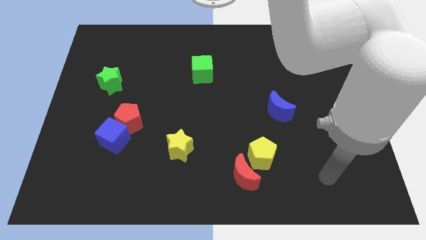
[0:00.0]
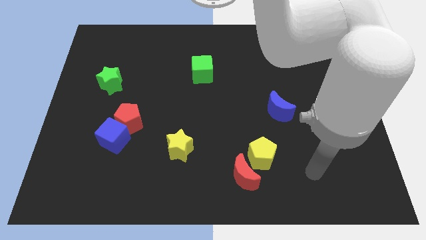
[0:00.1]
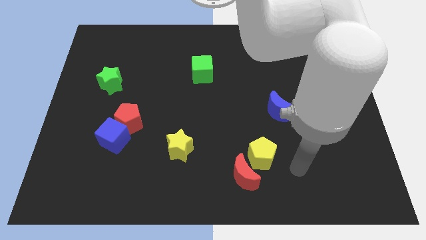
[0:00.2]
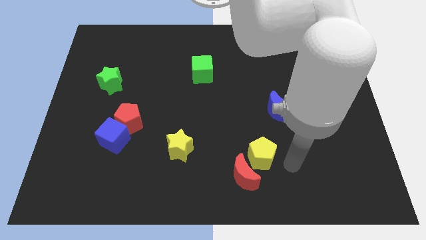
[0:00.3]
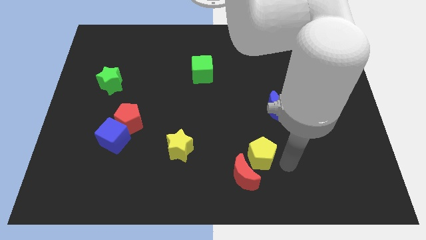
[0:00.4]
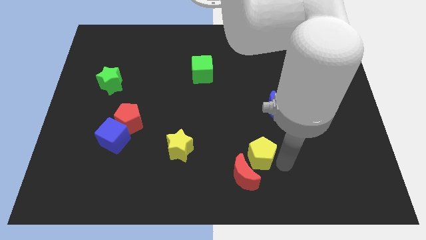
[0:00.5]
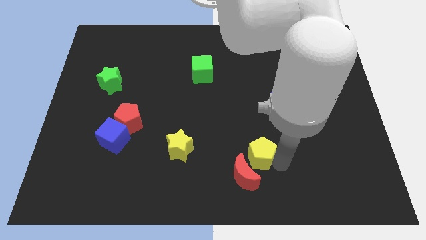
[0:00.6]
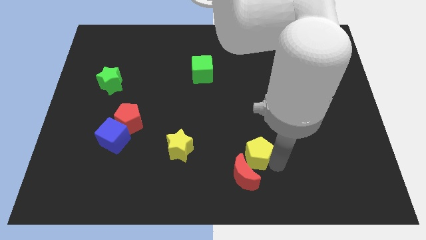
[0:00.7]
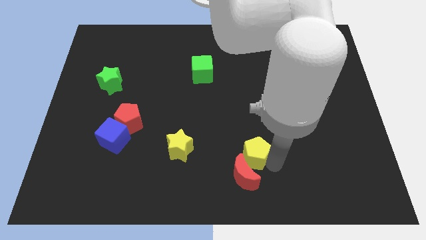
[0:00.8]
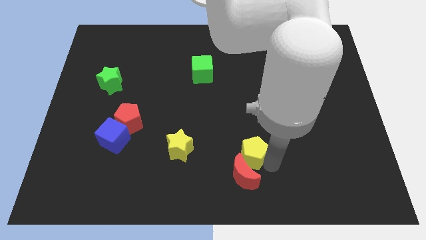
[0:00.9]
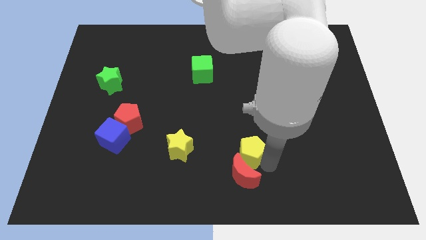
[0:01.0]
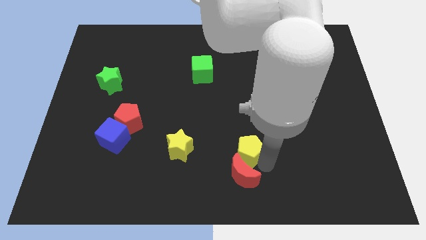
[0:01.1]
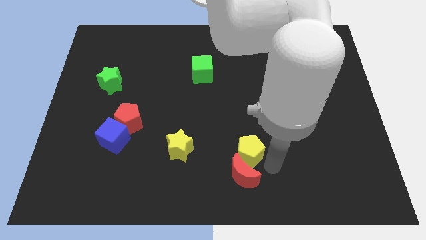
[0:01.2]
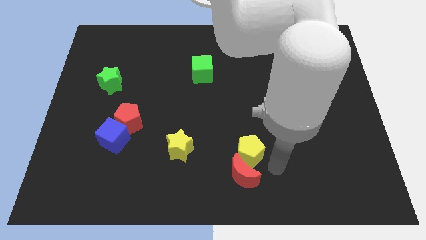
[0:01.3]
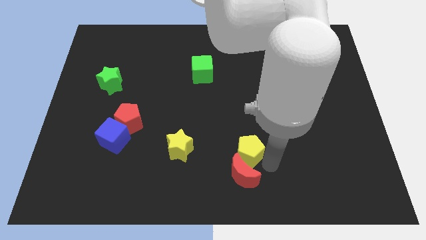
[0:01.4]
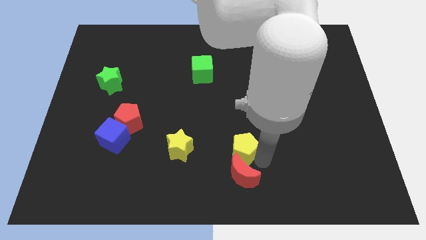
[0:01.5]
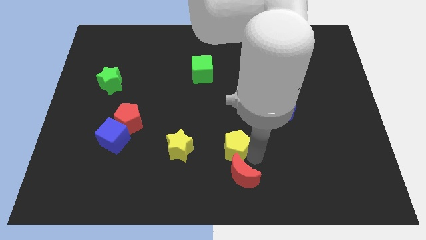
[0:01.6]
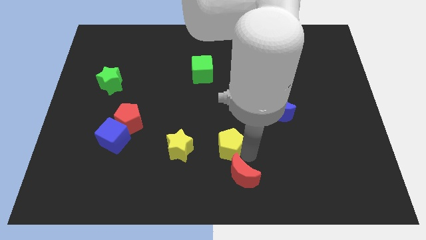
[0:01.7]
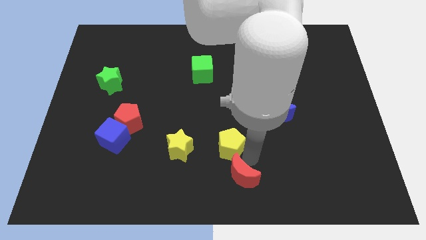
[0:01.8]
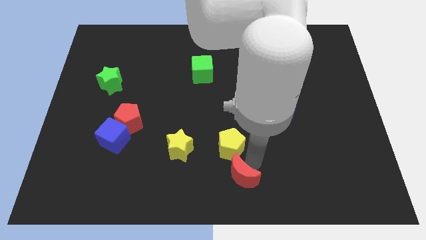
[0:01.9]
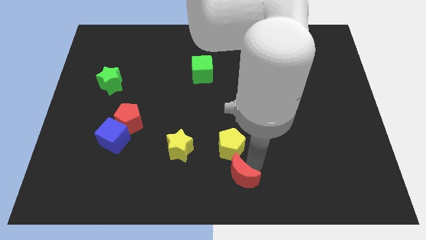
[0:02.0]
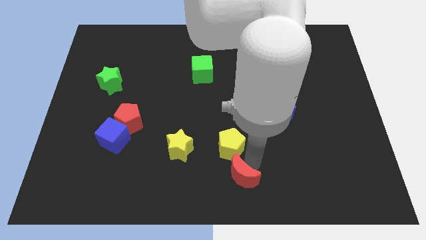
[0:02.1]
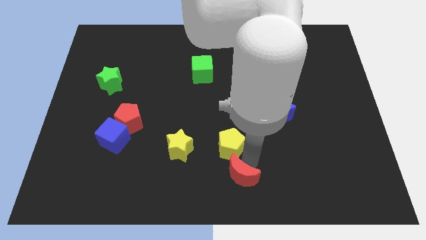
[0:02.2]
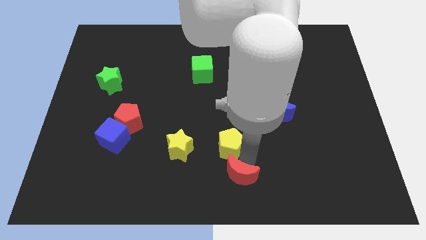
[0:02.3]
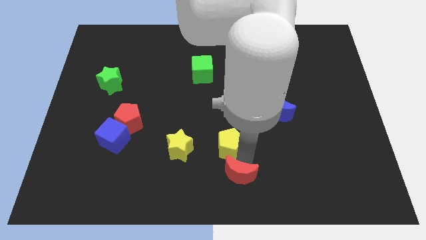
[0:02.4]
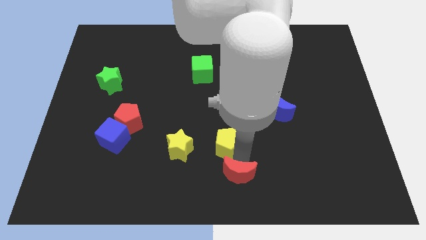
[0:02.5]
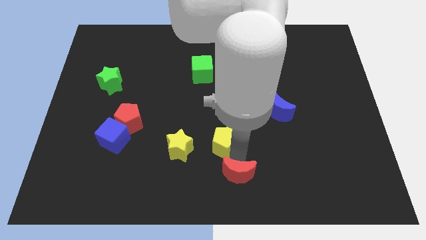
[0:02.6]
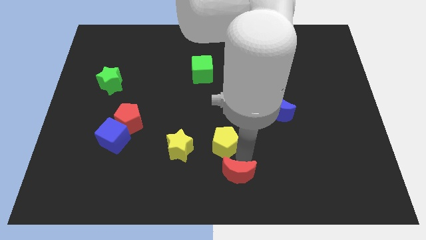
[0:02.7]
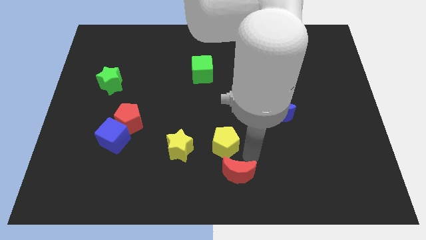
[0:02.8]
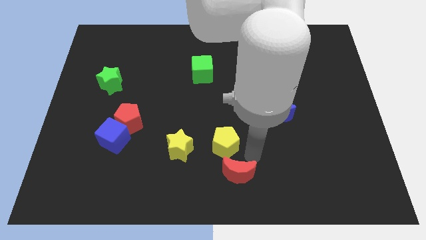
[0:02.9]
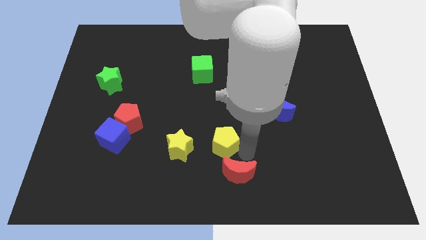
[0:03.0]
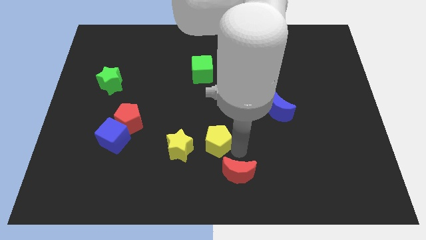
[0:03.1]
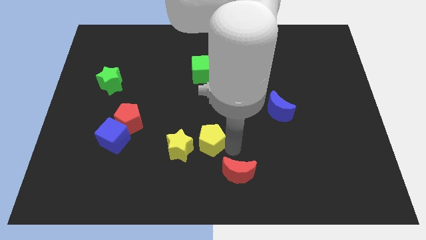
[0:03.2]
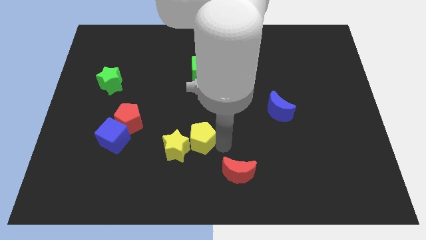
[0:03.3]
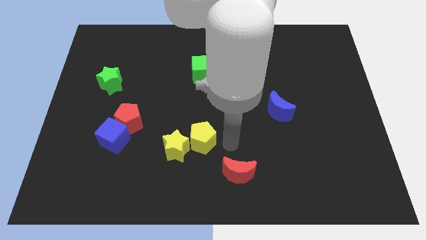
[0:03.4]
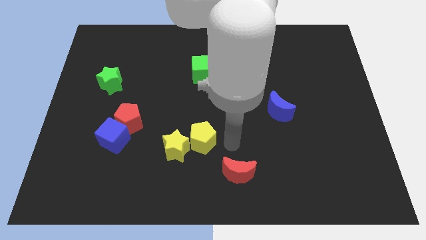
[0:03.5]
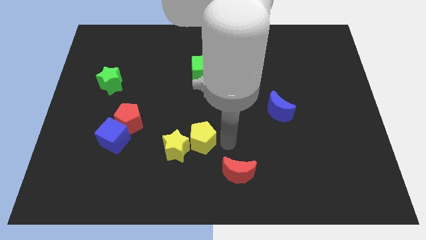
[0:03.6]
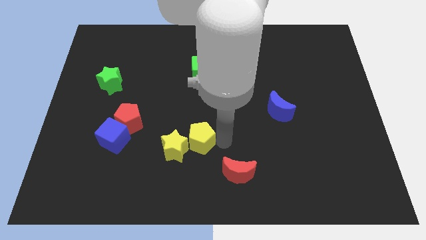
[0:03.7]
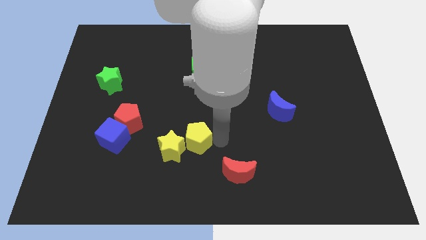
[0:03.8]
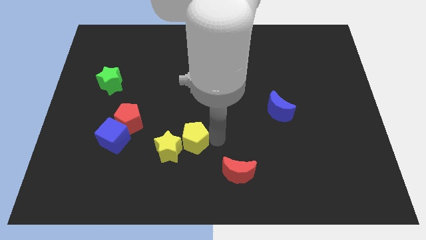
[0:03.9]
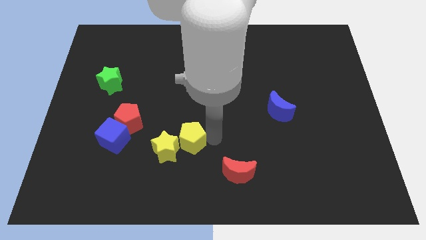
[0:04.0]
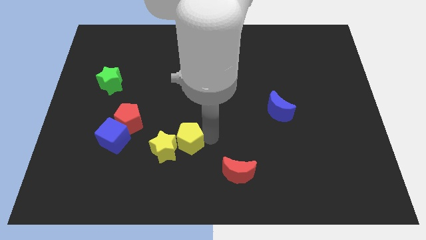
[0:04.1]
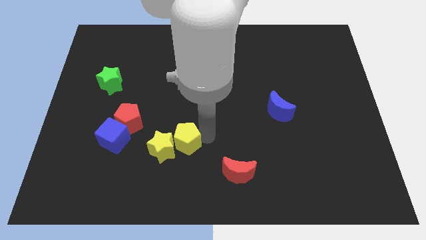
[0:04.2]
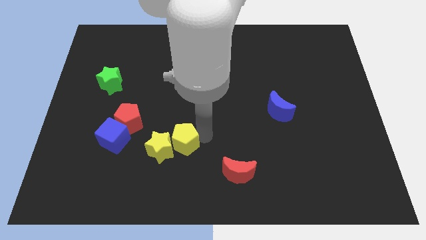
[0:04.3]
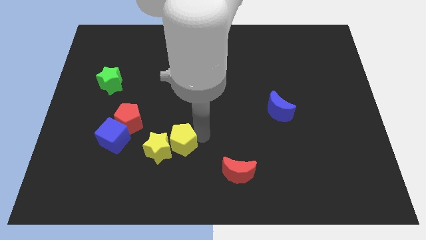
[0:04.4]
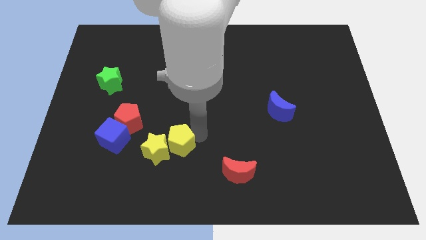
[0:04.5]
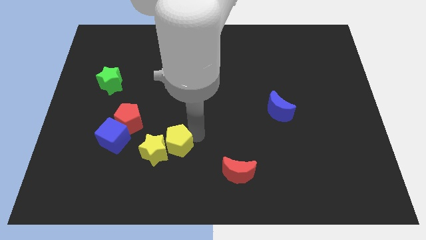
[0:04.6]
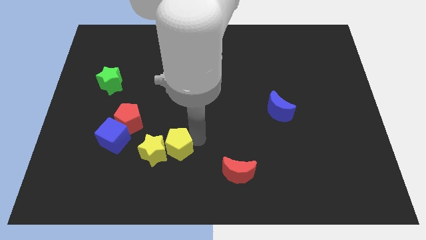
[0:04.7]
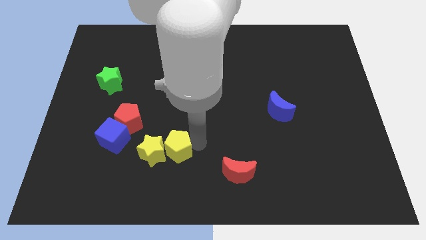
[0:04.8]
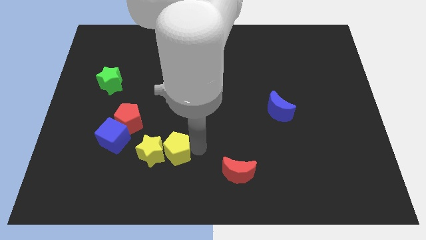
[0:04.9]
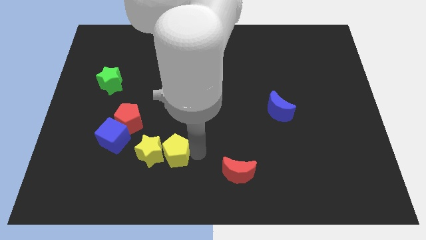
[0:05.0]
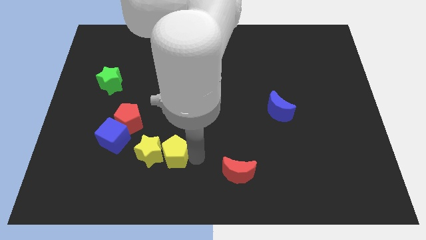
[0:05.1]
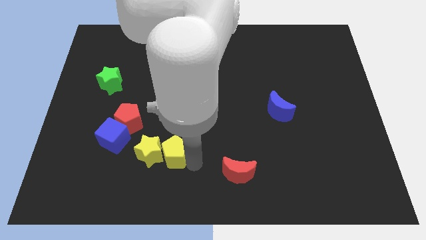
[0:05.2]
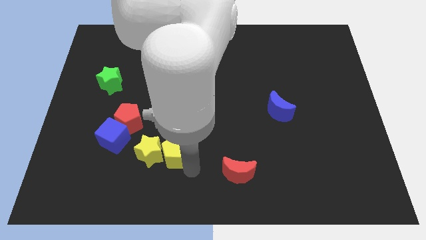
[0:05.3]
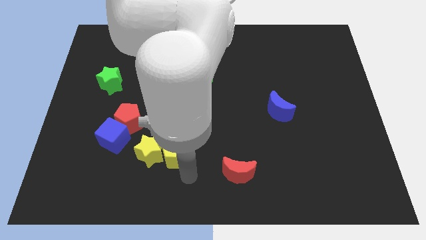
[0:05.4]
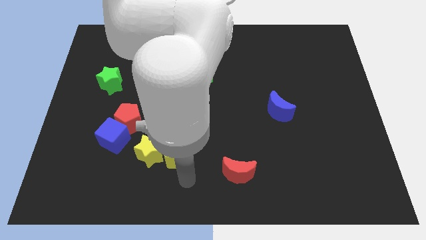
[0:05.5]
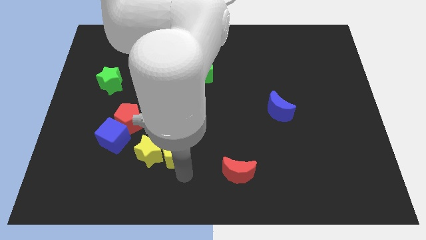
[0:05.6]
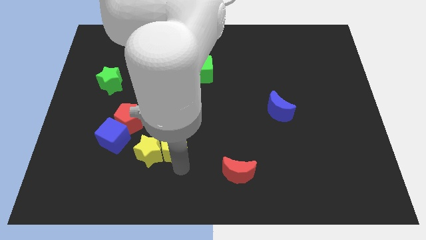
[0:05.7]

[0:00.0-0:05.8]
move the yellow pentagon to the bottom right of the red pentagon

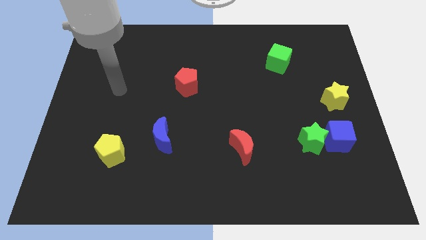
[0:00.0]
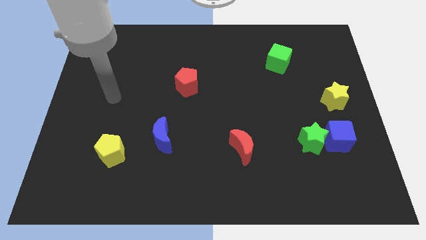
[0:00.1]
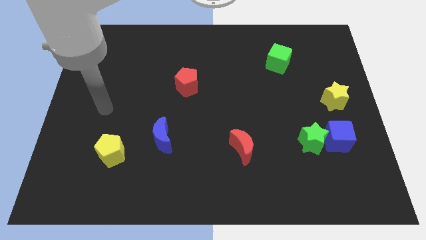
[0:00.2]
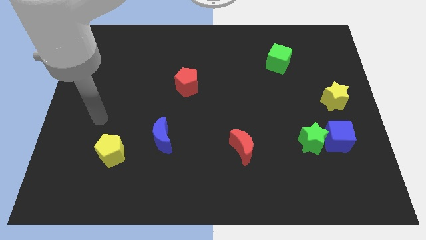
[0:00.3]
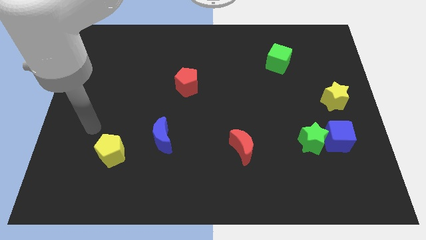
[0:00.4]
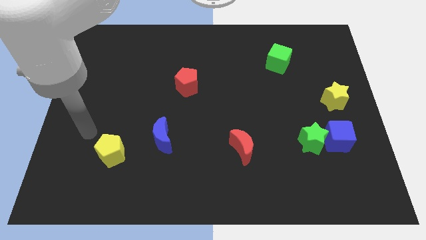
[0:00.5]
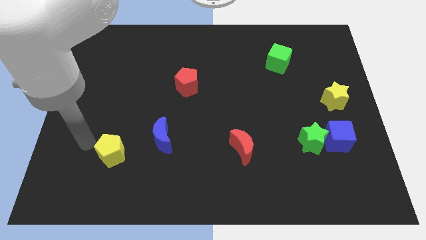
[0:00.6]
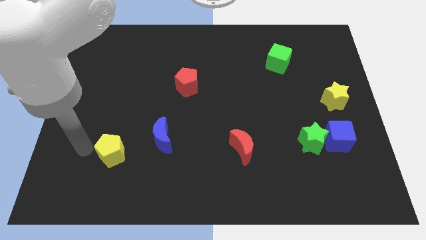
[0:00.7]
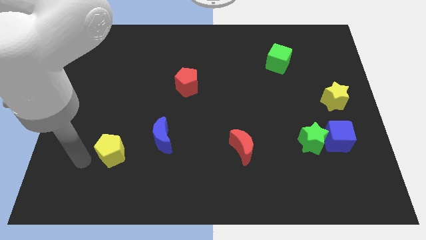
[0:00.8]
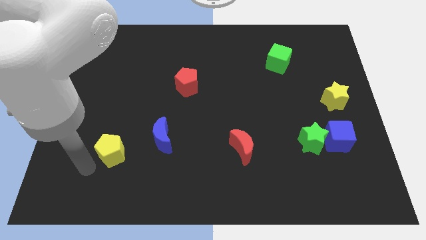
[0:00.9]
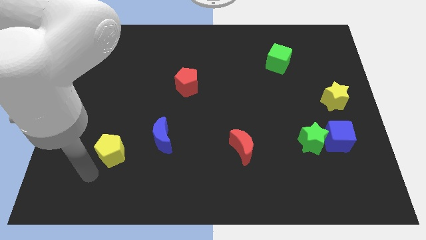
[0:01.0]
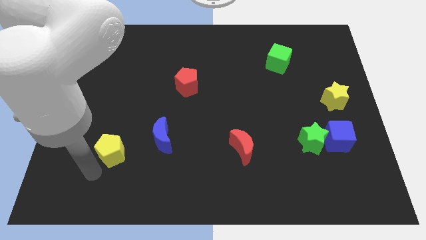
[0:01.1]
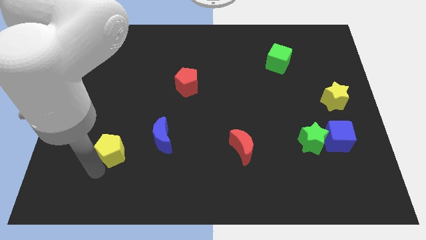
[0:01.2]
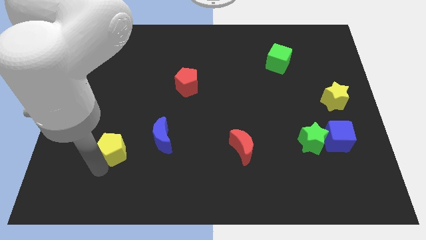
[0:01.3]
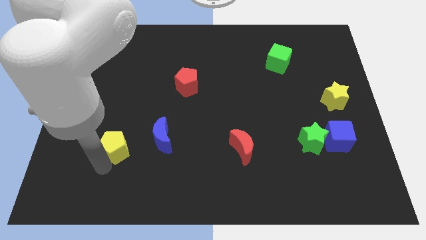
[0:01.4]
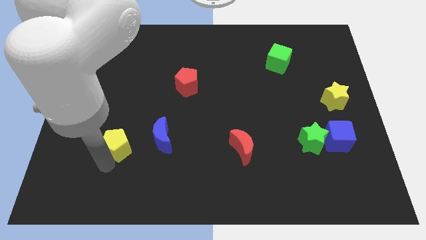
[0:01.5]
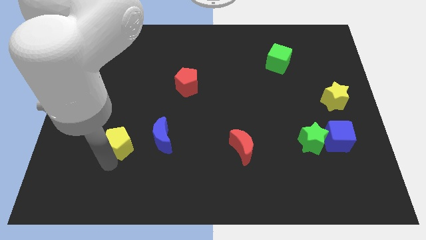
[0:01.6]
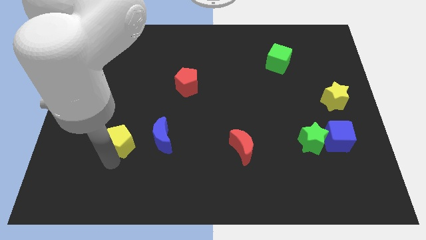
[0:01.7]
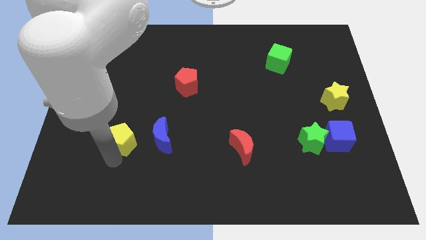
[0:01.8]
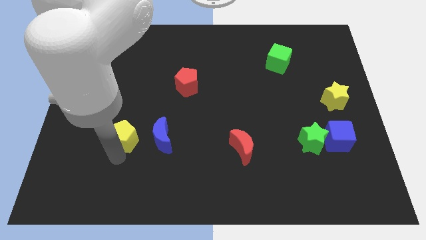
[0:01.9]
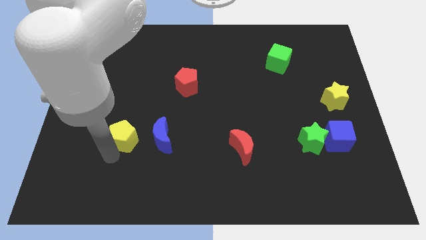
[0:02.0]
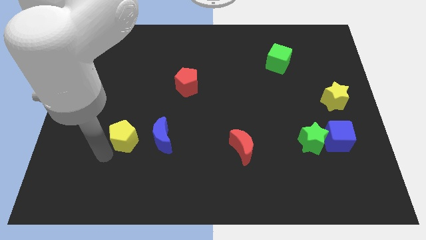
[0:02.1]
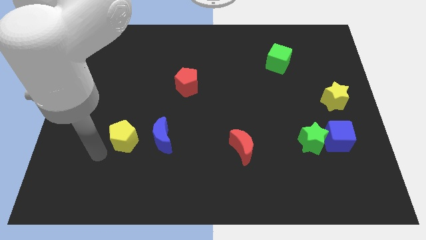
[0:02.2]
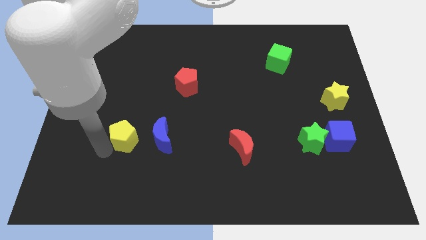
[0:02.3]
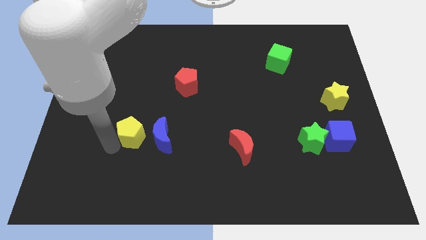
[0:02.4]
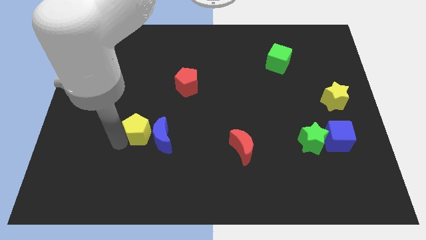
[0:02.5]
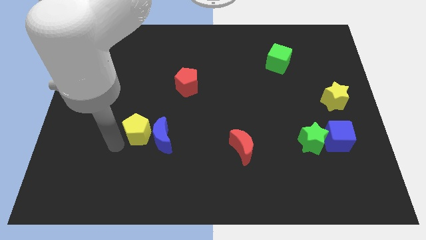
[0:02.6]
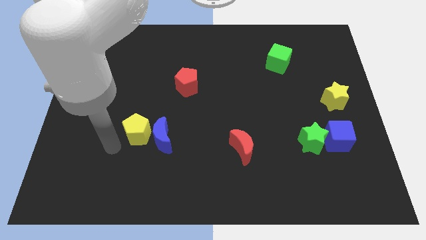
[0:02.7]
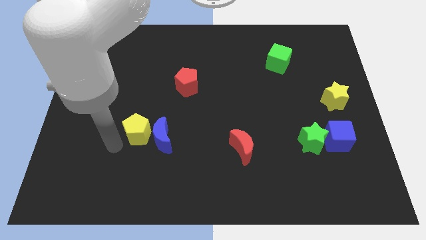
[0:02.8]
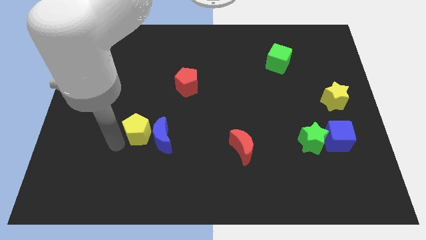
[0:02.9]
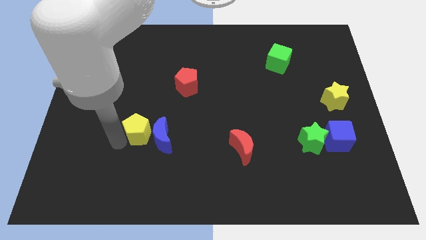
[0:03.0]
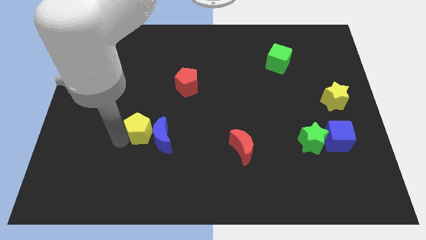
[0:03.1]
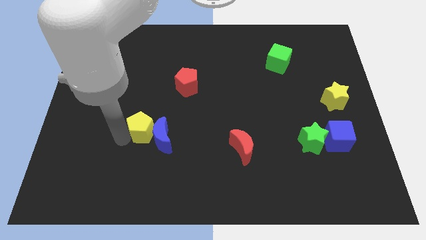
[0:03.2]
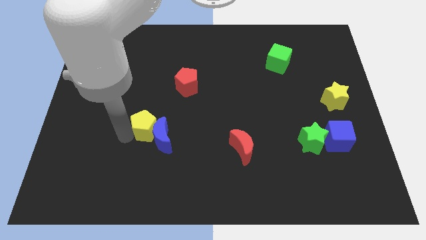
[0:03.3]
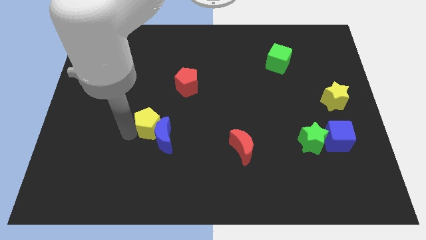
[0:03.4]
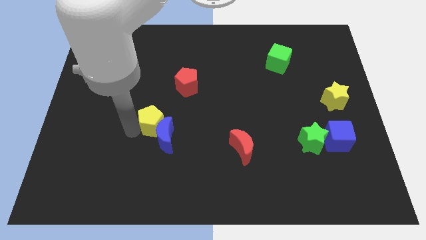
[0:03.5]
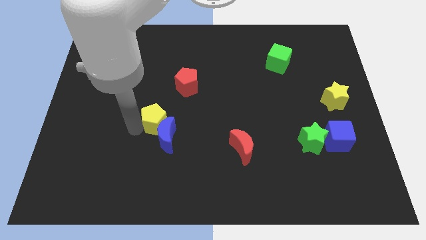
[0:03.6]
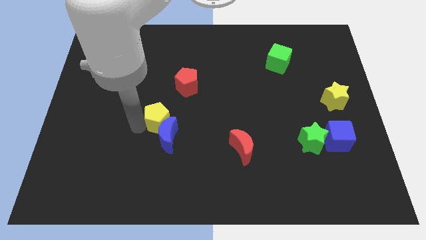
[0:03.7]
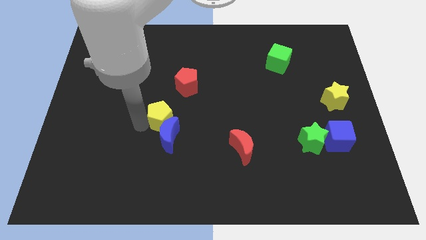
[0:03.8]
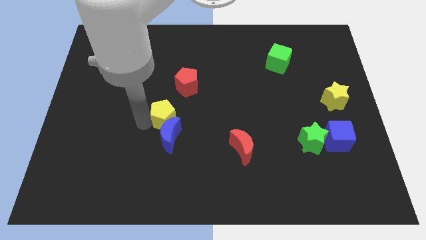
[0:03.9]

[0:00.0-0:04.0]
slide the yellow pentagon to the bottom side of the red pentagon
